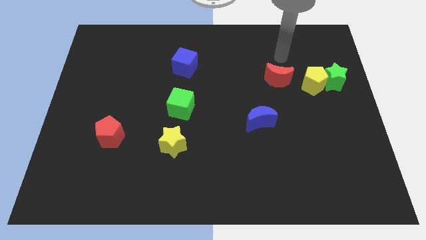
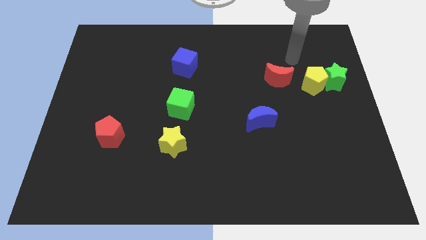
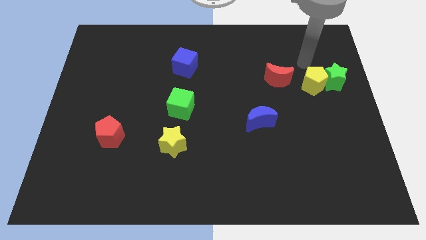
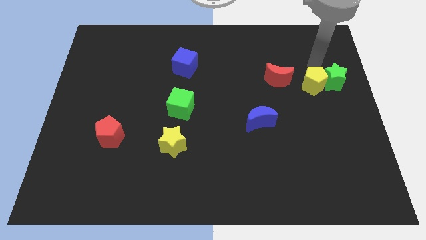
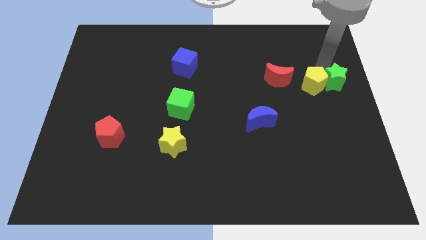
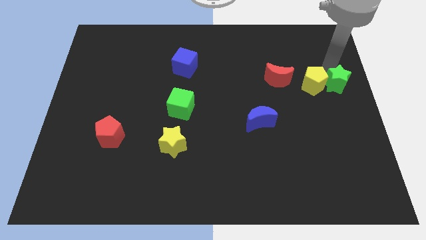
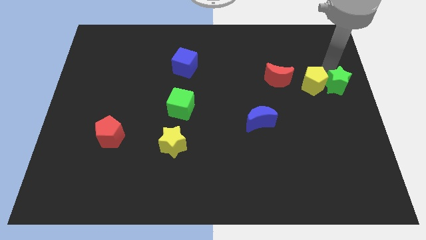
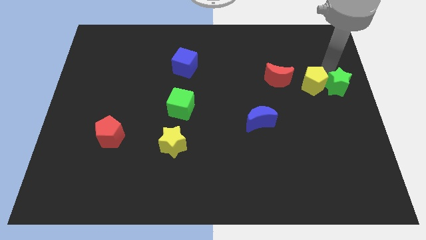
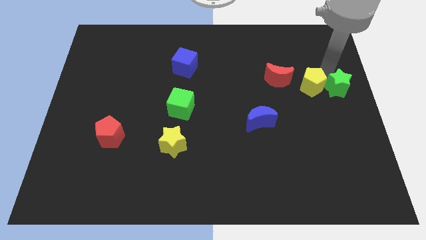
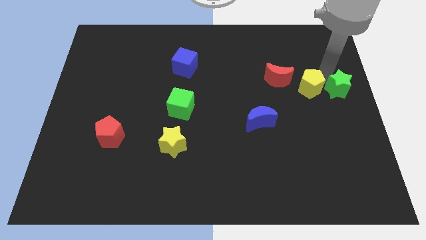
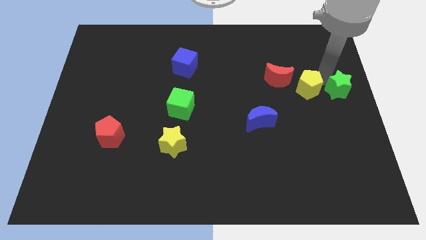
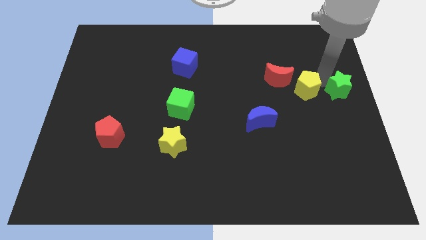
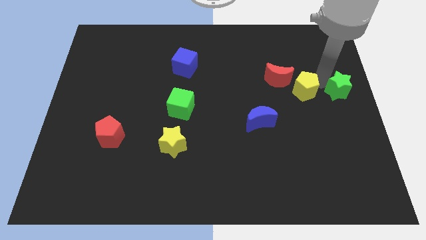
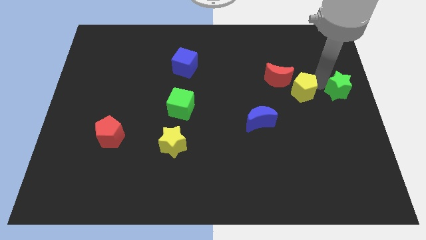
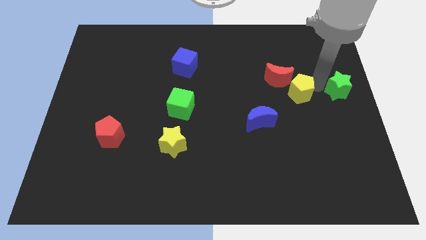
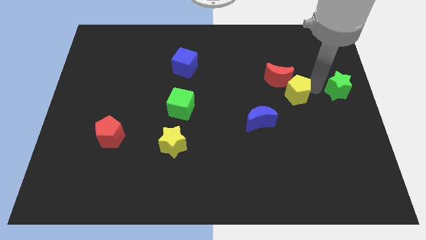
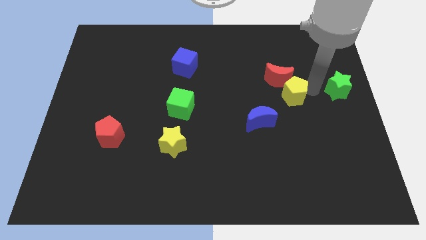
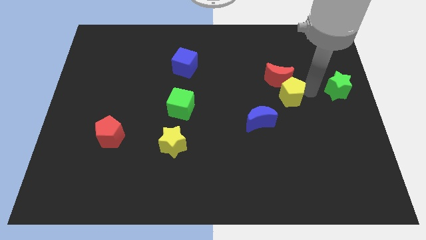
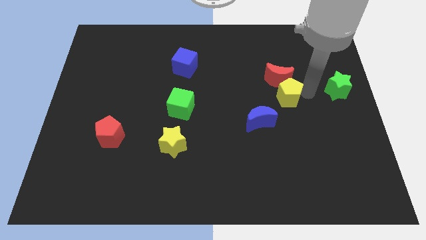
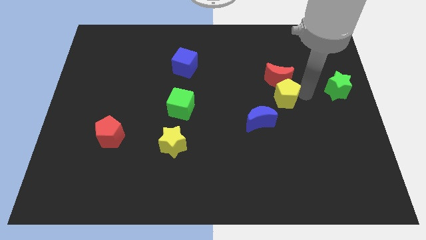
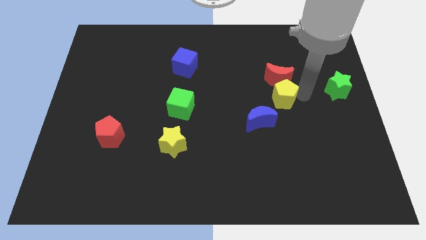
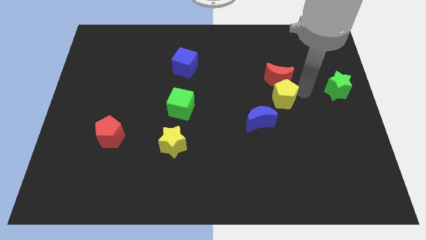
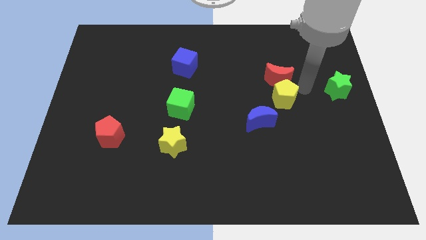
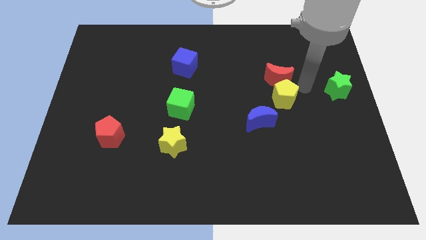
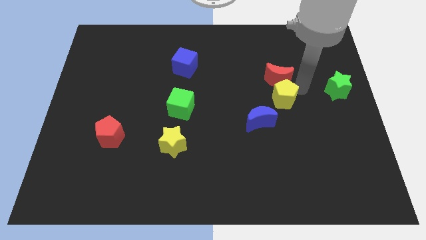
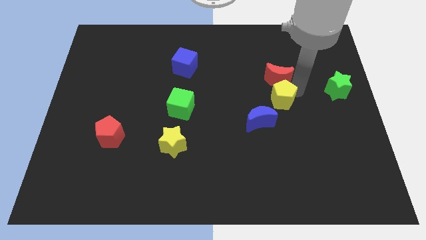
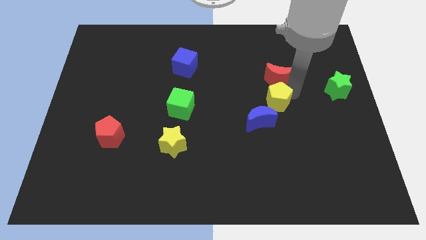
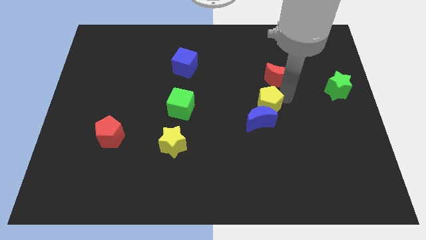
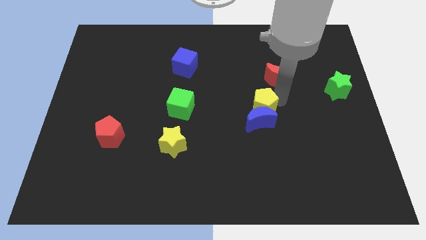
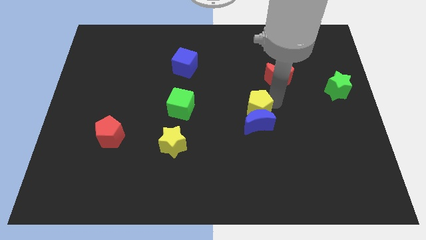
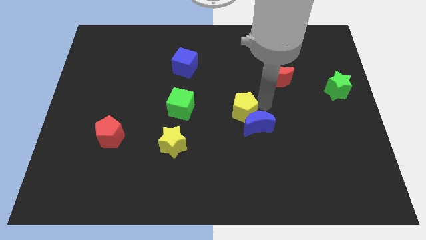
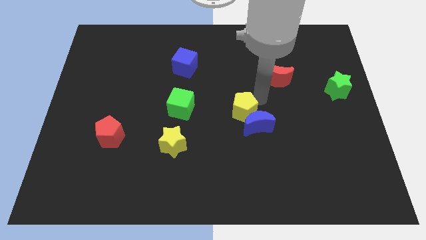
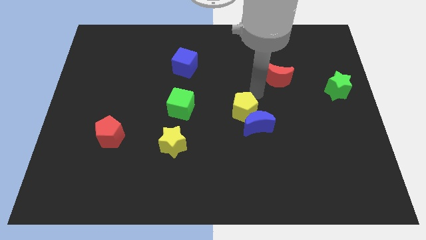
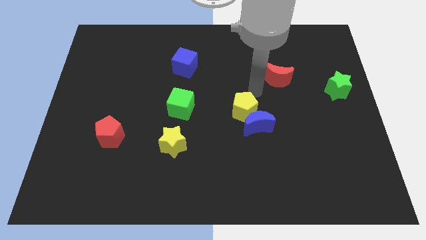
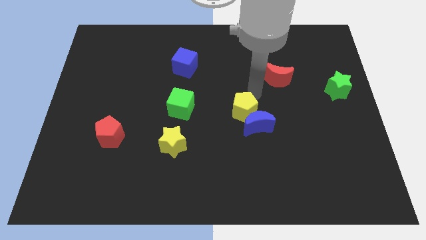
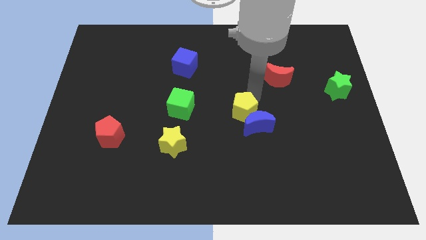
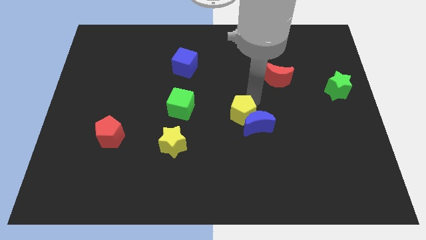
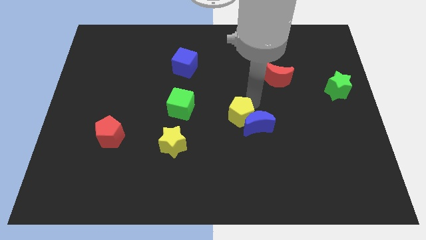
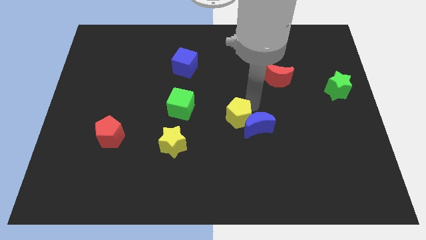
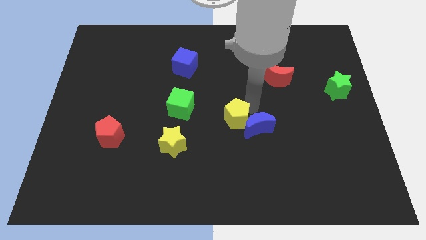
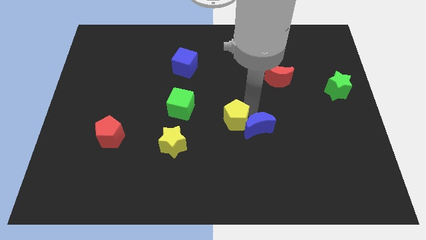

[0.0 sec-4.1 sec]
push the yellow pentagon downwards and left diagonally

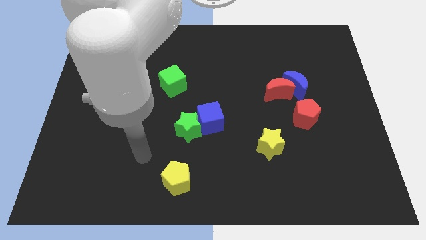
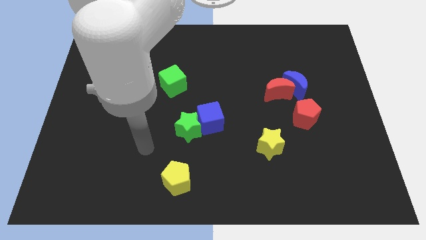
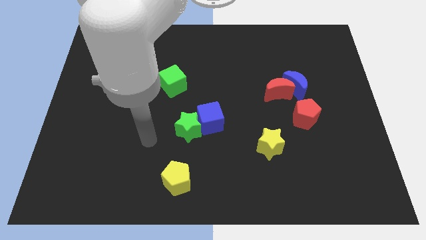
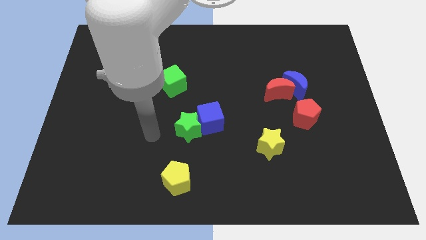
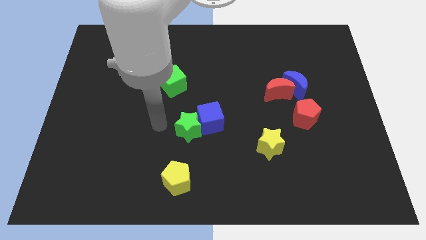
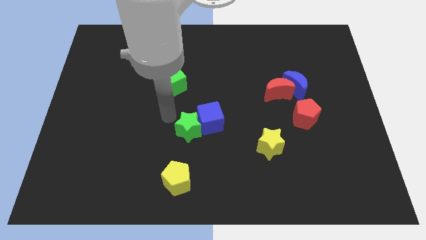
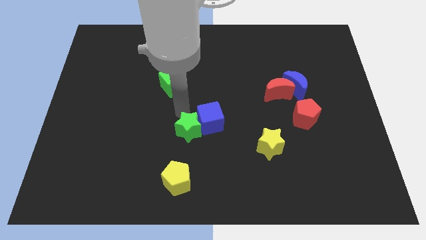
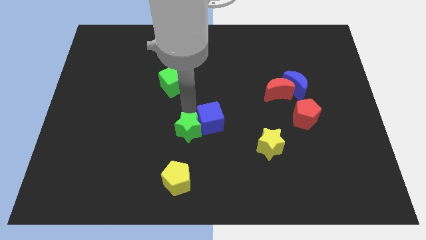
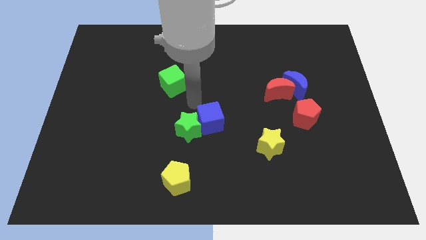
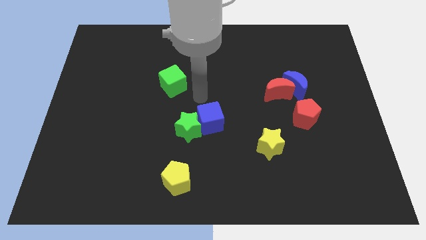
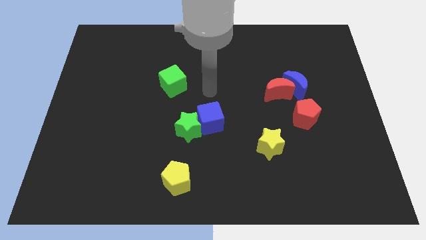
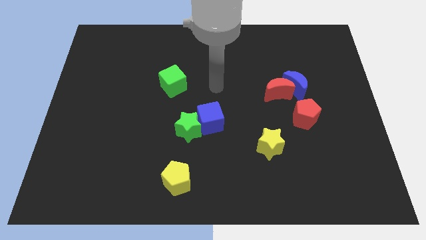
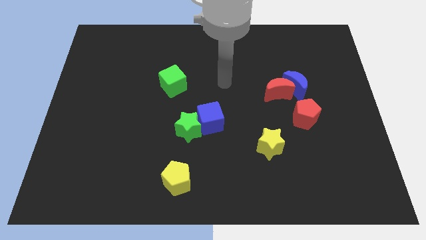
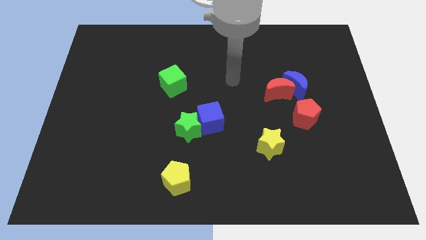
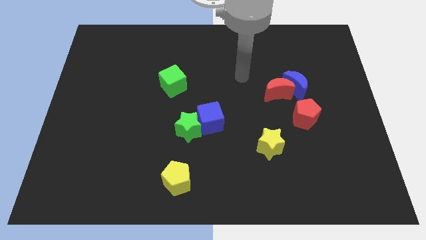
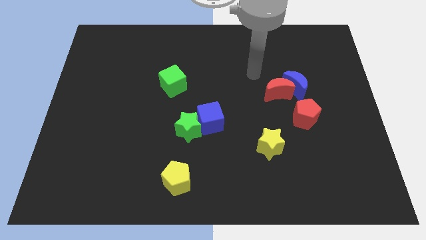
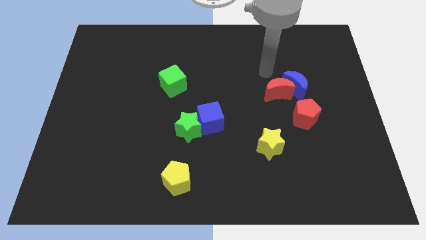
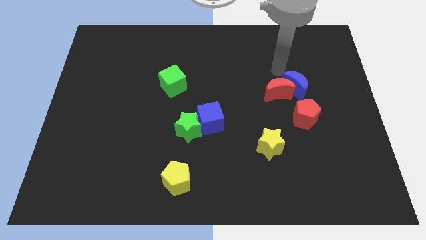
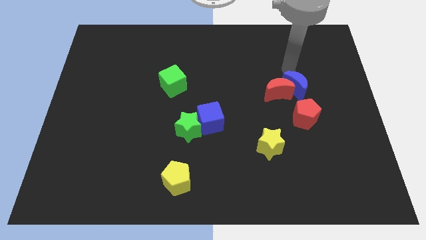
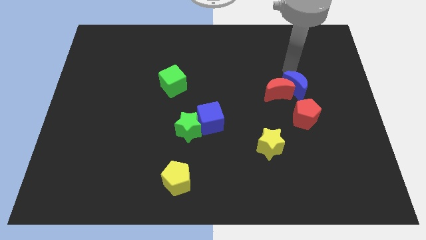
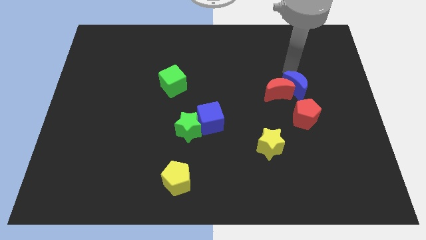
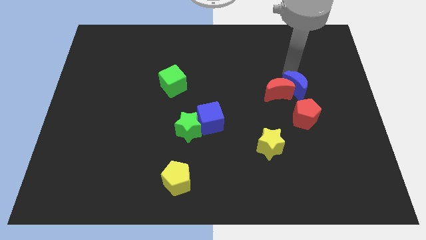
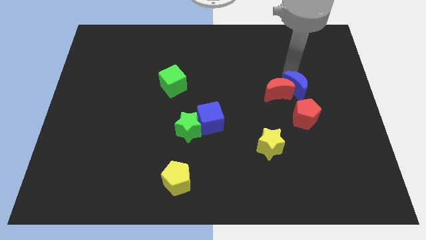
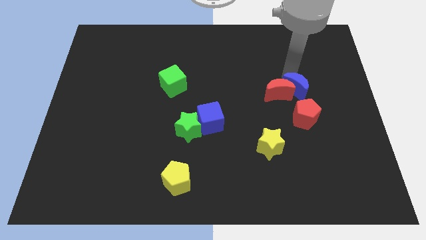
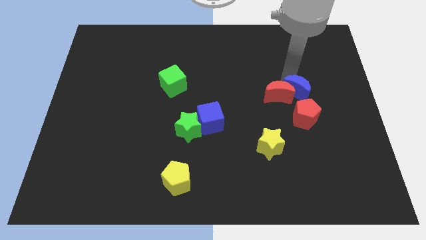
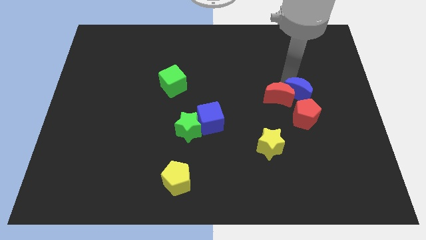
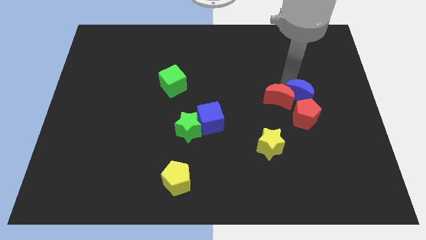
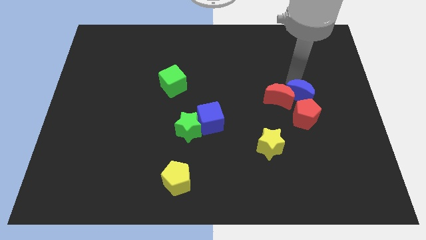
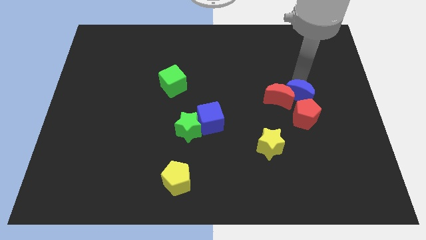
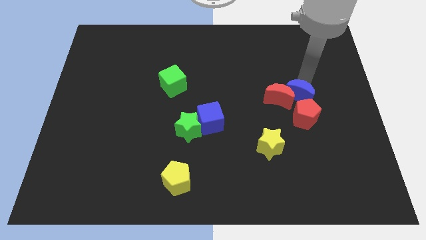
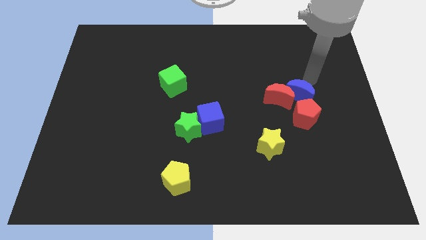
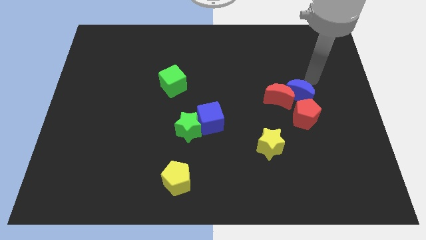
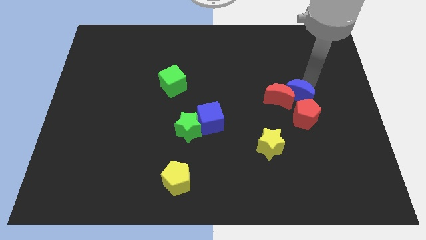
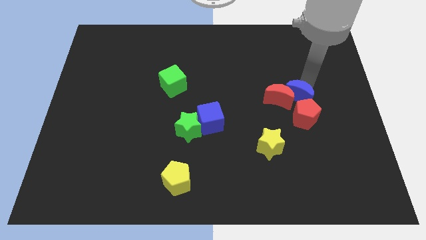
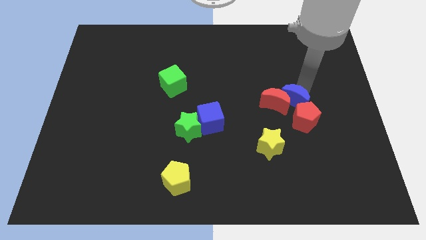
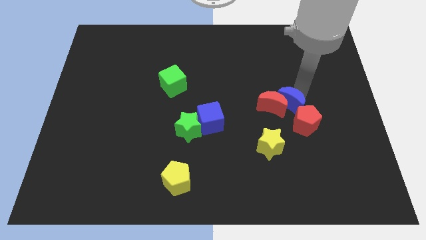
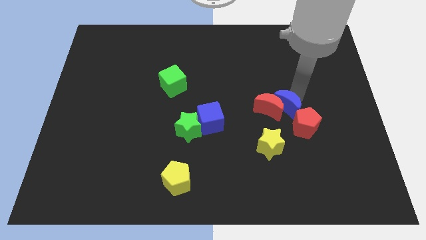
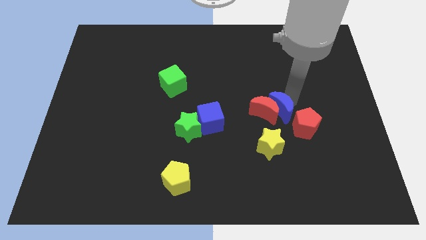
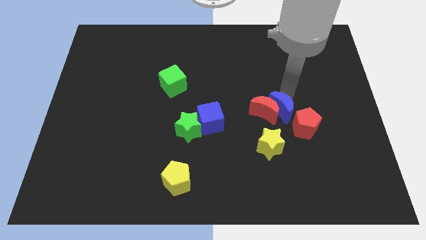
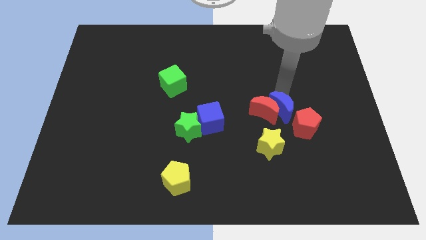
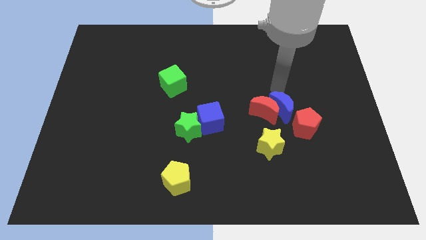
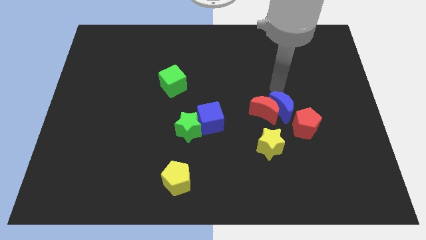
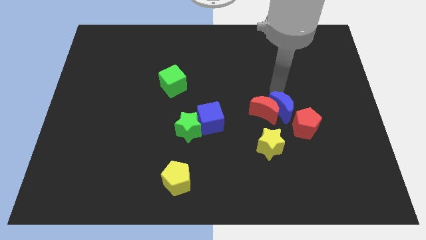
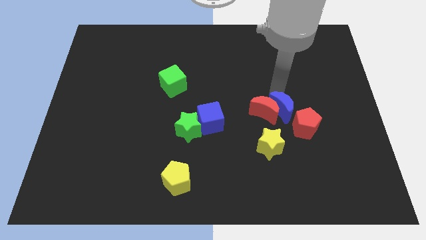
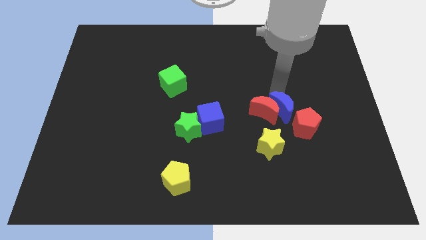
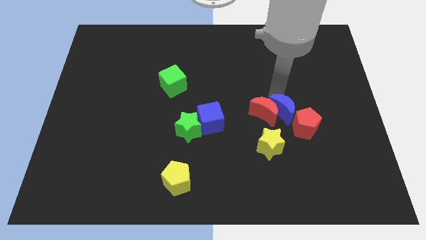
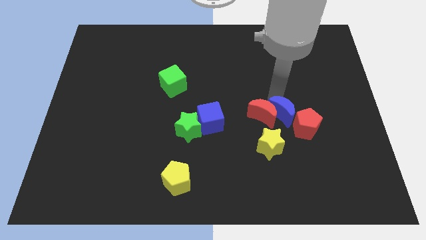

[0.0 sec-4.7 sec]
move the blue moon down a little
